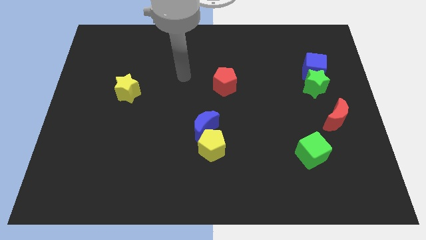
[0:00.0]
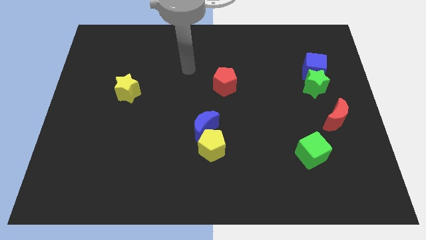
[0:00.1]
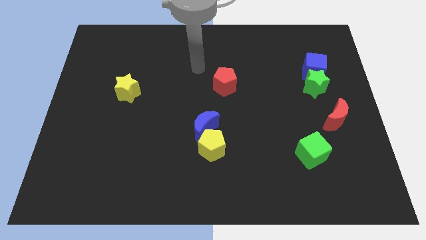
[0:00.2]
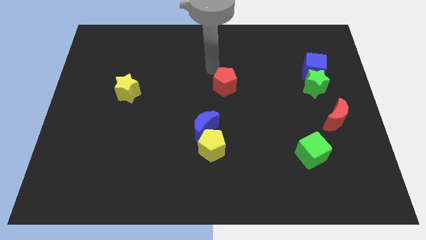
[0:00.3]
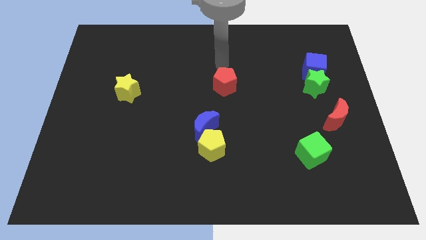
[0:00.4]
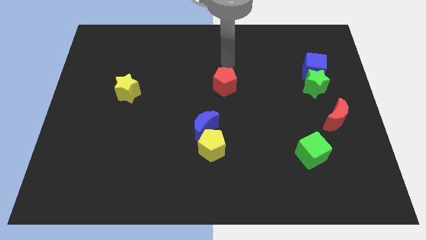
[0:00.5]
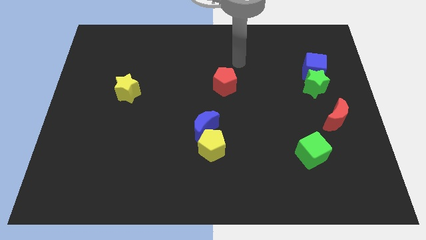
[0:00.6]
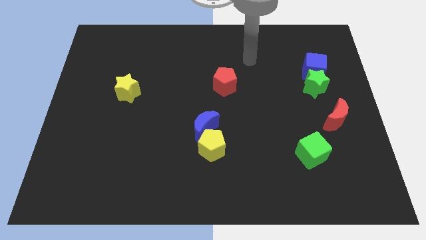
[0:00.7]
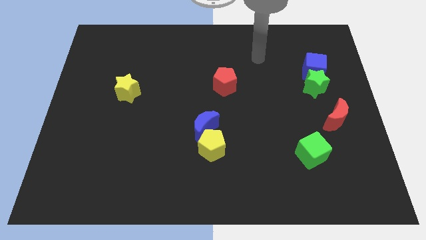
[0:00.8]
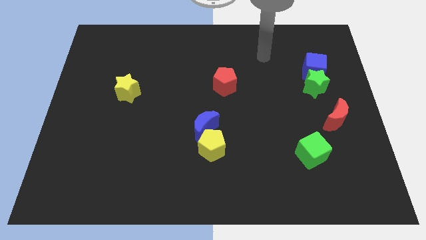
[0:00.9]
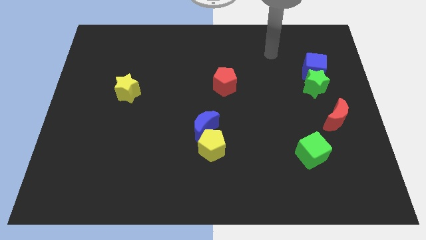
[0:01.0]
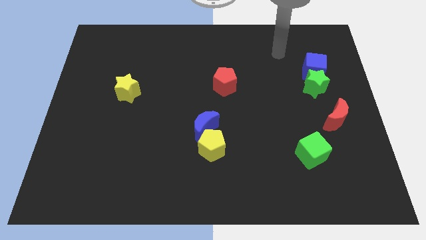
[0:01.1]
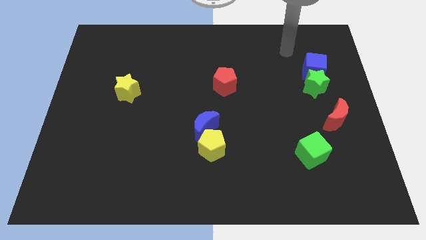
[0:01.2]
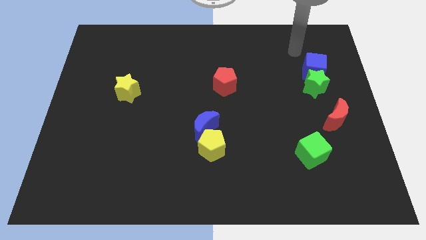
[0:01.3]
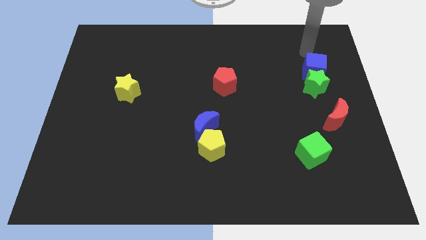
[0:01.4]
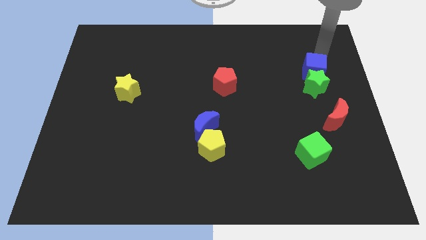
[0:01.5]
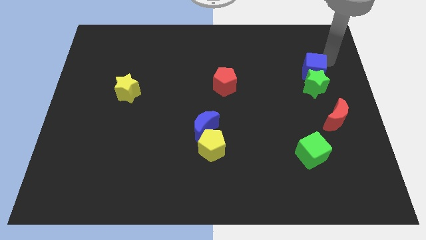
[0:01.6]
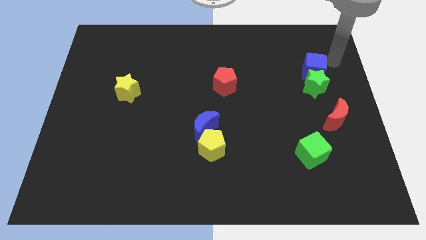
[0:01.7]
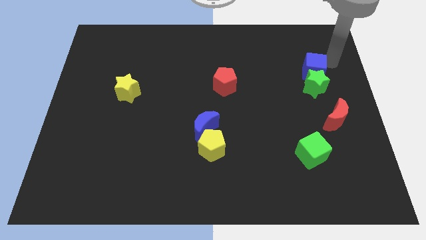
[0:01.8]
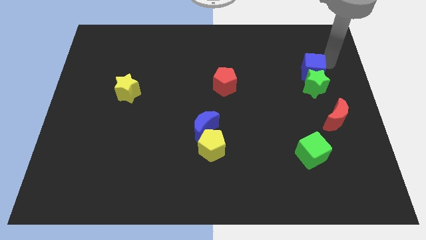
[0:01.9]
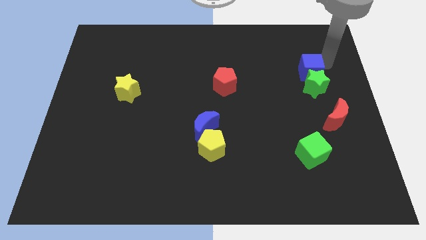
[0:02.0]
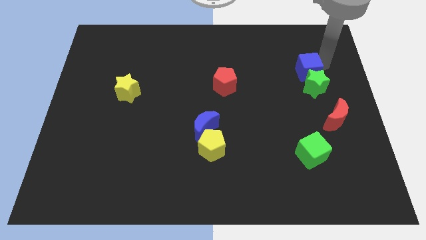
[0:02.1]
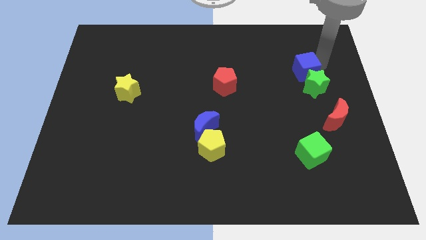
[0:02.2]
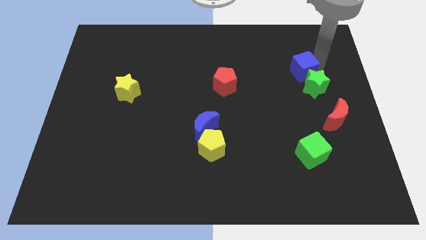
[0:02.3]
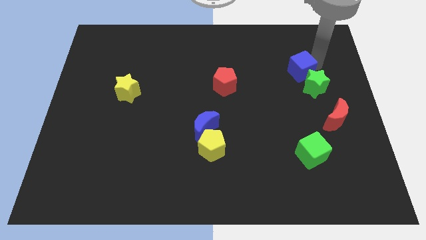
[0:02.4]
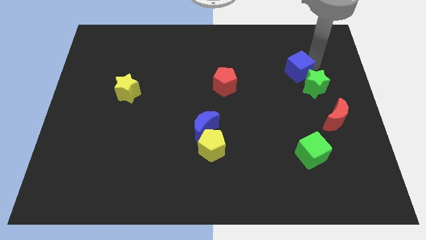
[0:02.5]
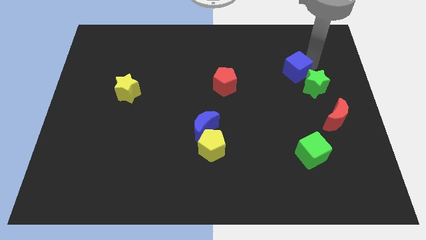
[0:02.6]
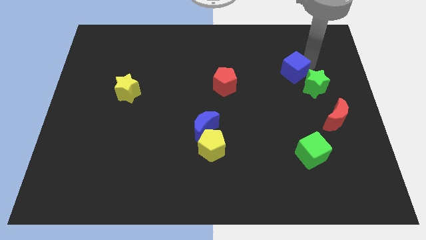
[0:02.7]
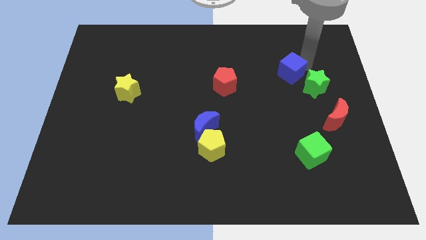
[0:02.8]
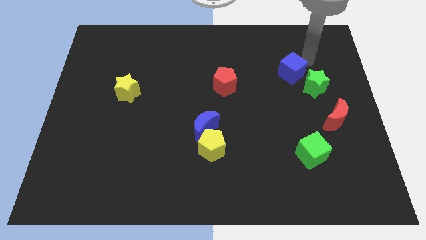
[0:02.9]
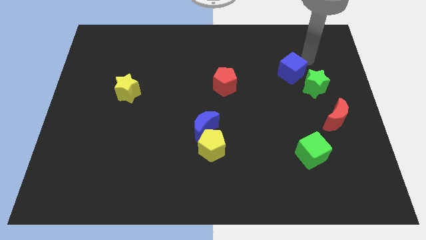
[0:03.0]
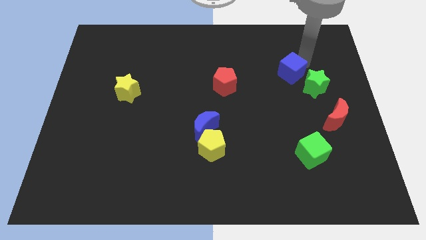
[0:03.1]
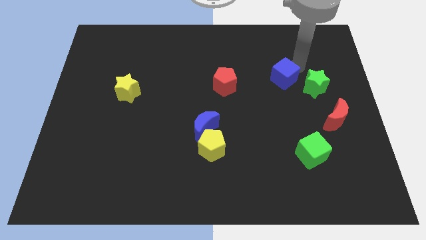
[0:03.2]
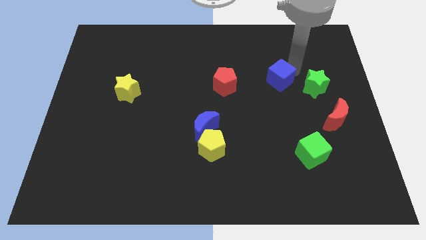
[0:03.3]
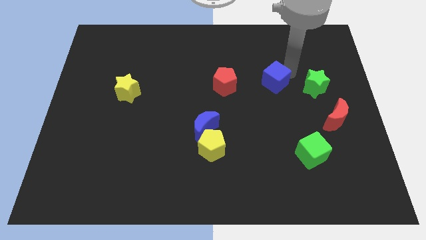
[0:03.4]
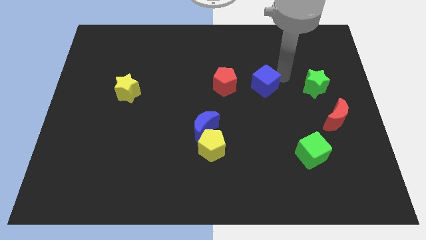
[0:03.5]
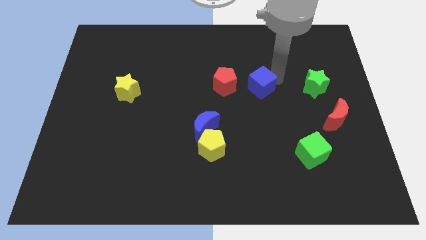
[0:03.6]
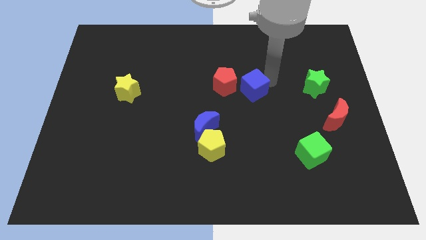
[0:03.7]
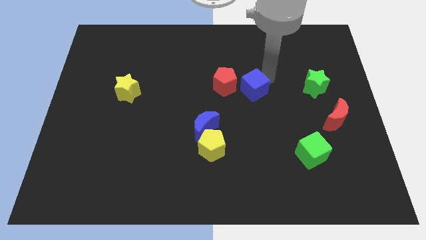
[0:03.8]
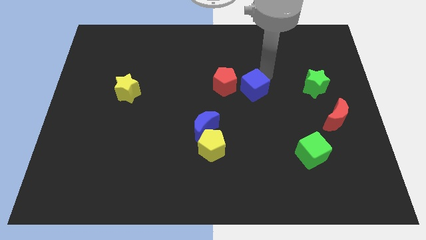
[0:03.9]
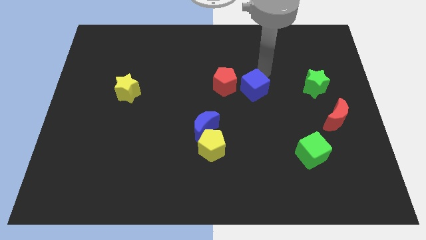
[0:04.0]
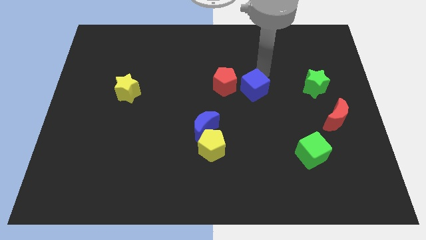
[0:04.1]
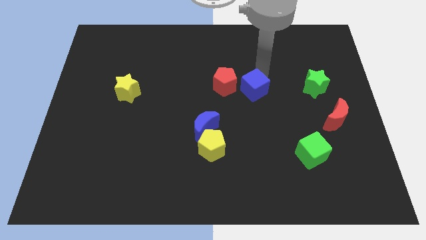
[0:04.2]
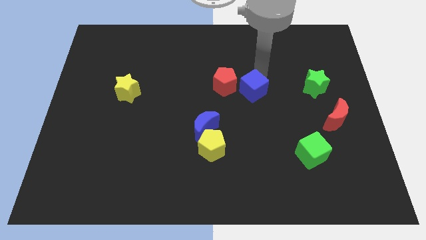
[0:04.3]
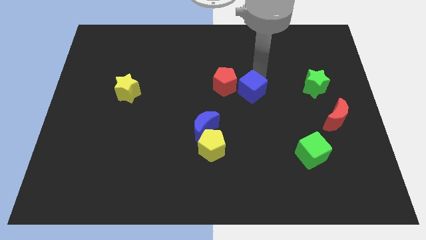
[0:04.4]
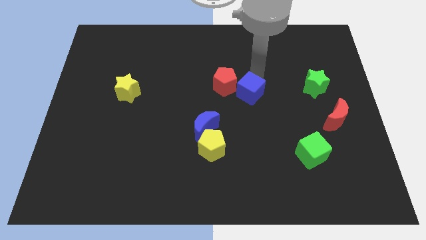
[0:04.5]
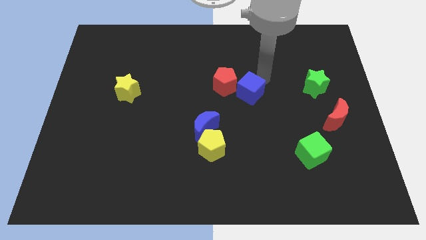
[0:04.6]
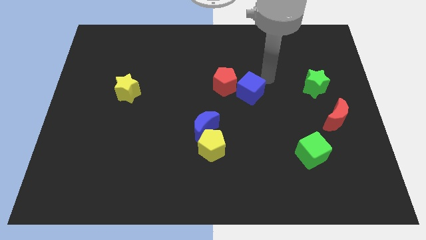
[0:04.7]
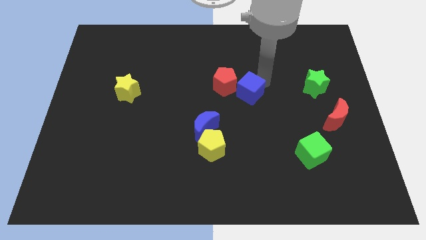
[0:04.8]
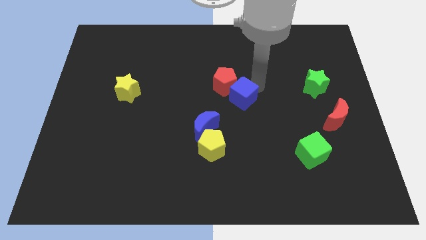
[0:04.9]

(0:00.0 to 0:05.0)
slide the blue cube to the top right of the blue moon

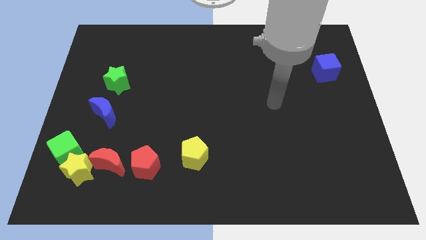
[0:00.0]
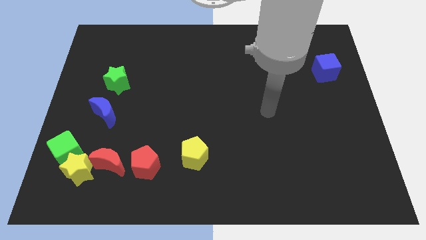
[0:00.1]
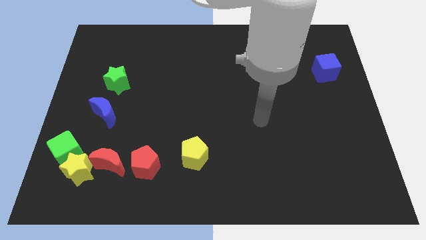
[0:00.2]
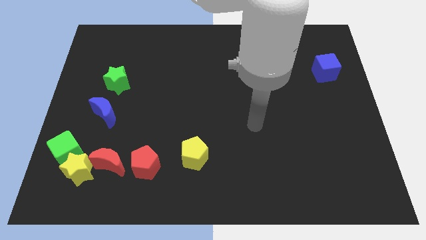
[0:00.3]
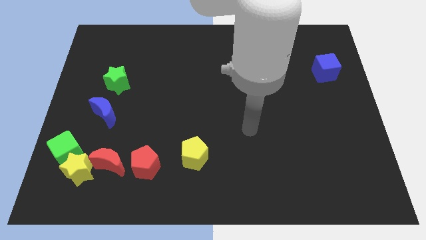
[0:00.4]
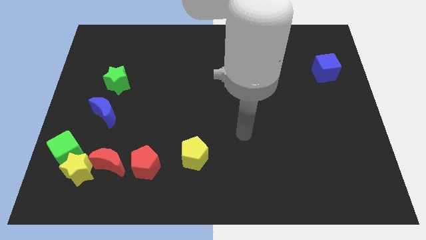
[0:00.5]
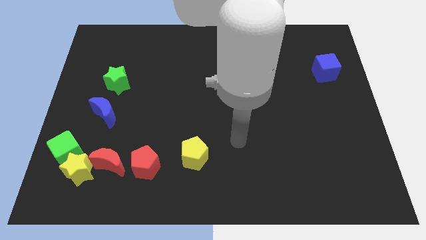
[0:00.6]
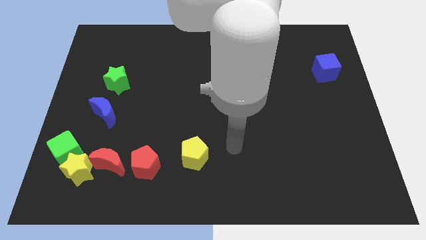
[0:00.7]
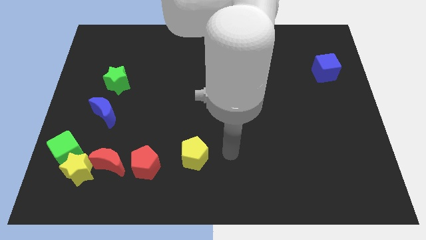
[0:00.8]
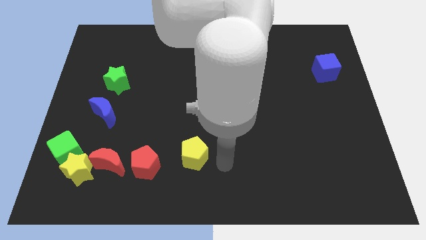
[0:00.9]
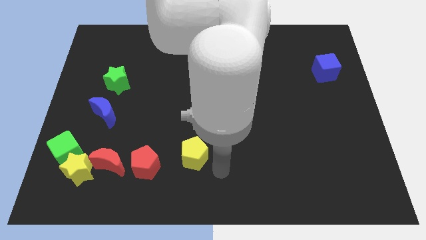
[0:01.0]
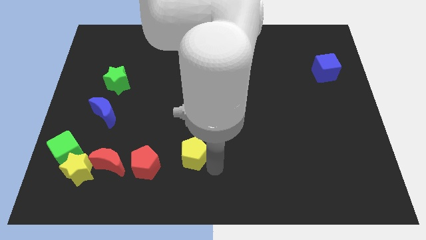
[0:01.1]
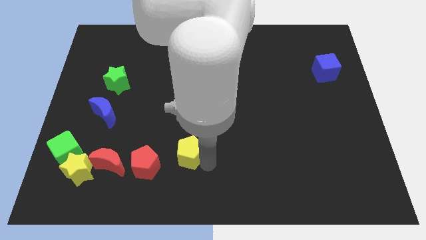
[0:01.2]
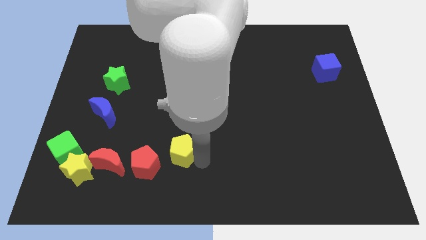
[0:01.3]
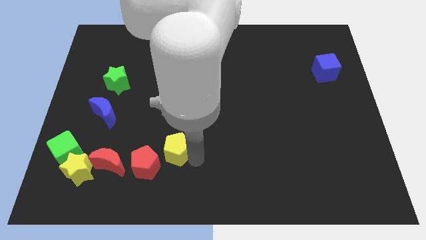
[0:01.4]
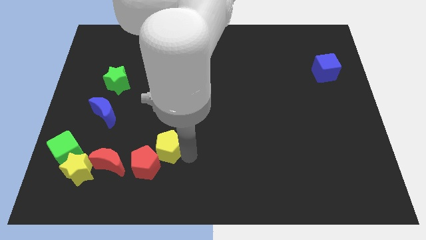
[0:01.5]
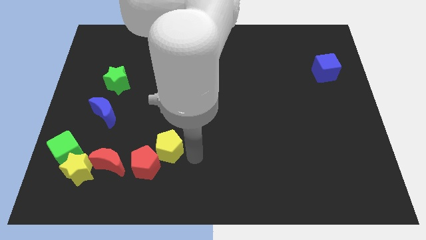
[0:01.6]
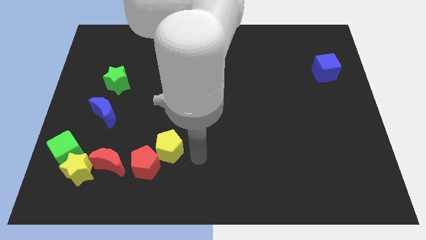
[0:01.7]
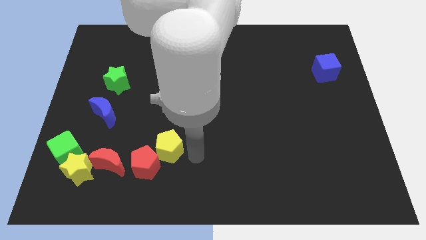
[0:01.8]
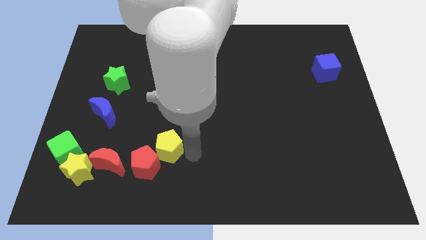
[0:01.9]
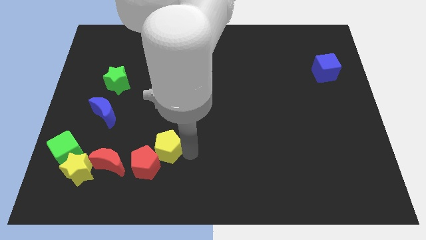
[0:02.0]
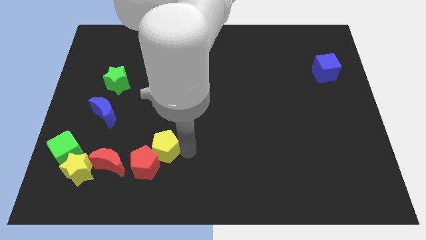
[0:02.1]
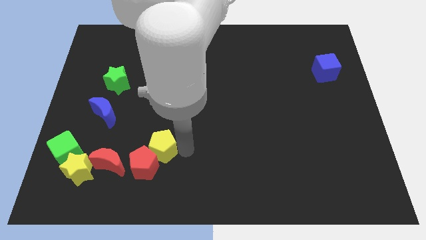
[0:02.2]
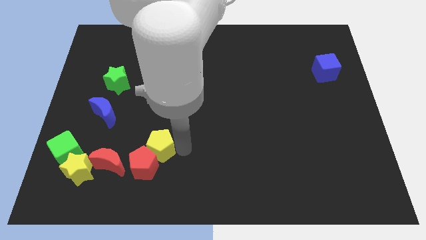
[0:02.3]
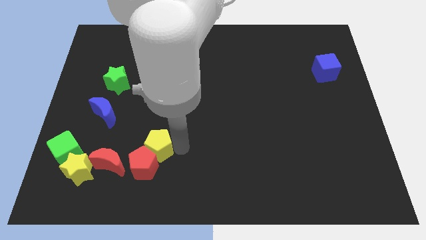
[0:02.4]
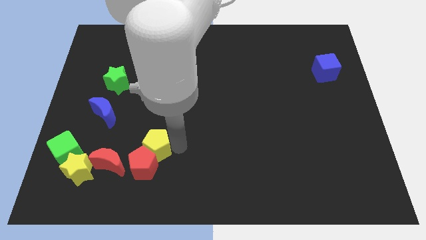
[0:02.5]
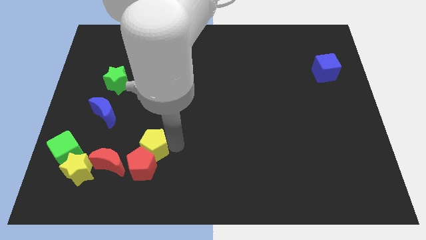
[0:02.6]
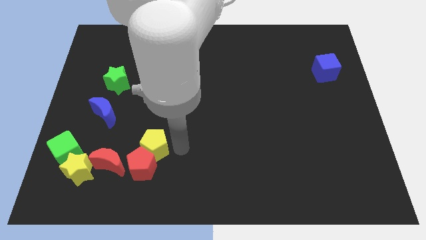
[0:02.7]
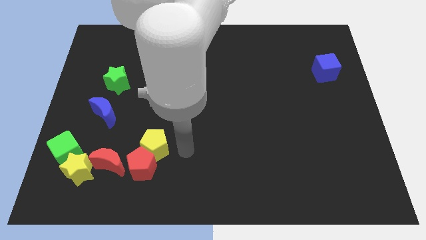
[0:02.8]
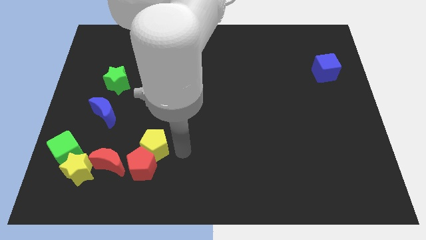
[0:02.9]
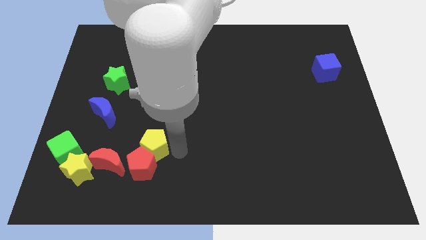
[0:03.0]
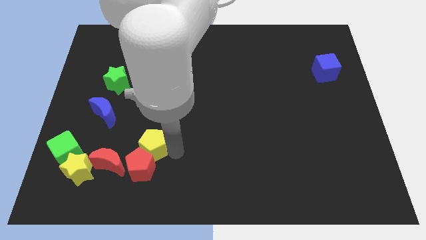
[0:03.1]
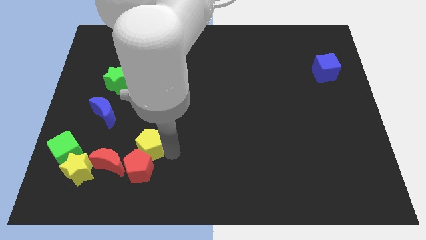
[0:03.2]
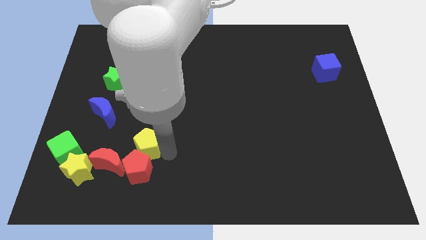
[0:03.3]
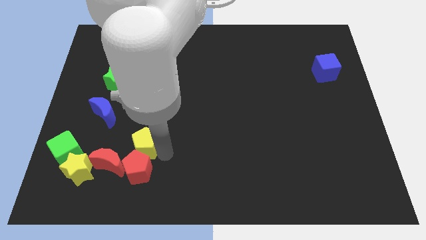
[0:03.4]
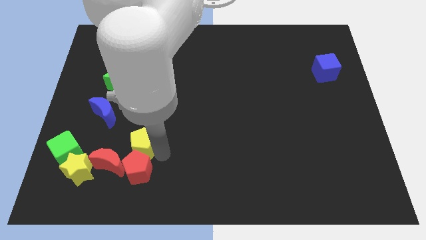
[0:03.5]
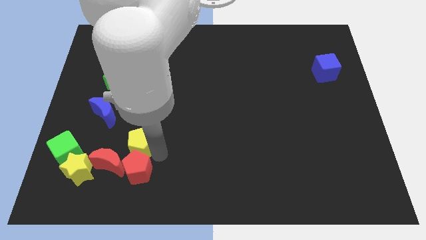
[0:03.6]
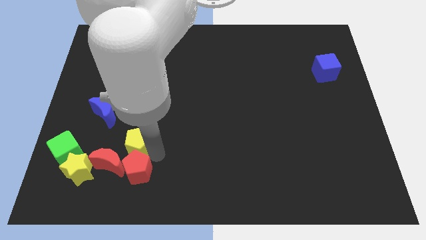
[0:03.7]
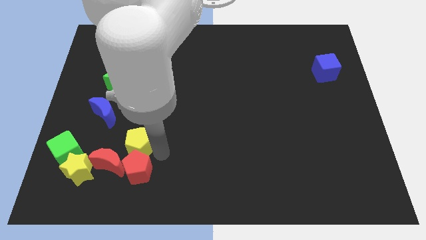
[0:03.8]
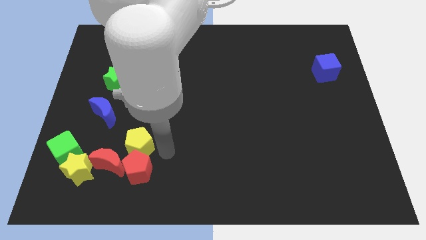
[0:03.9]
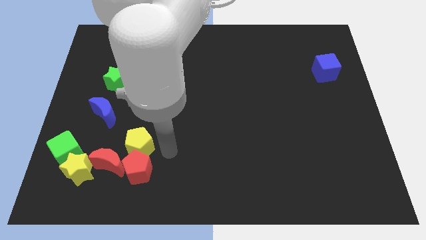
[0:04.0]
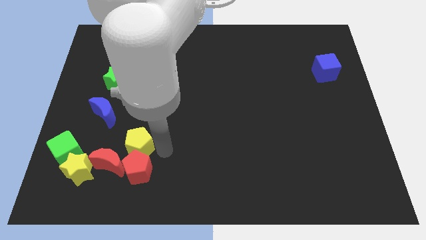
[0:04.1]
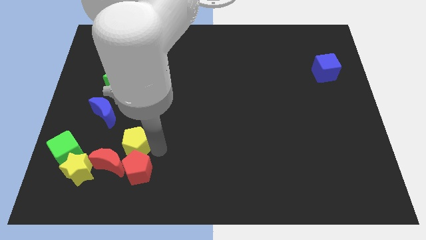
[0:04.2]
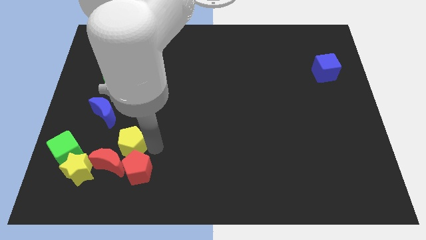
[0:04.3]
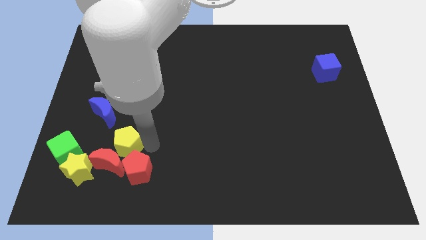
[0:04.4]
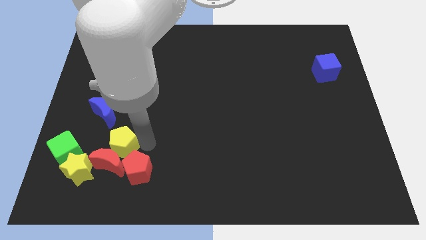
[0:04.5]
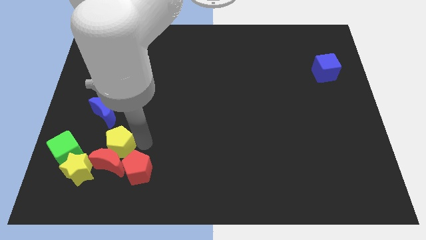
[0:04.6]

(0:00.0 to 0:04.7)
slide the yellow pentagon diagonally up and to the left of the red moon
